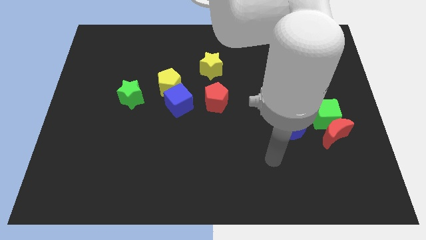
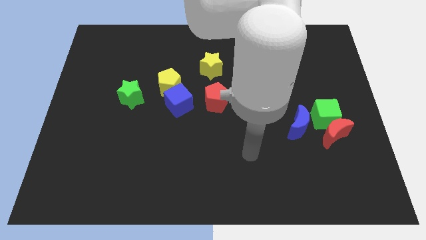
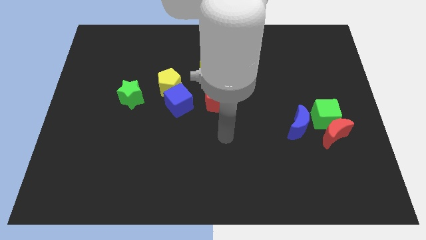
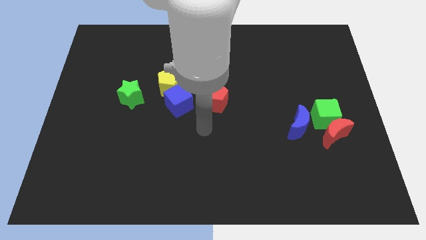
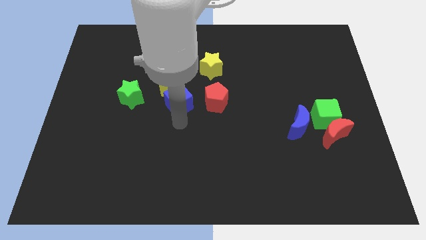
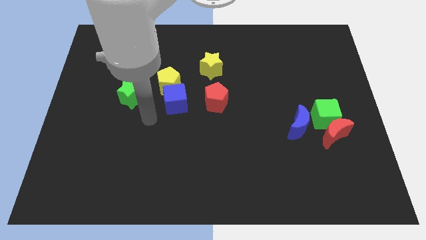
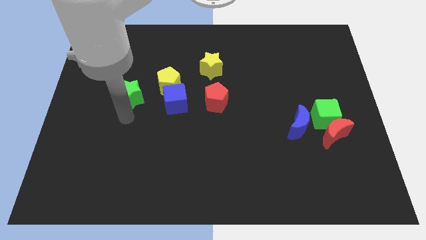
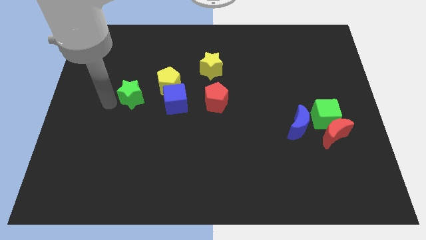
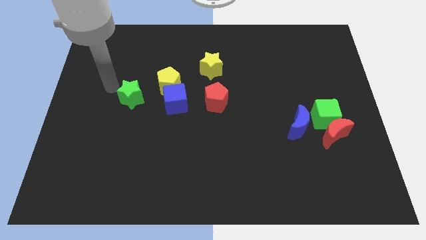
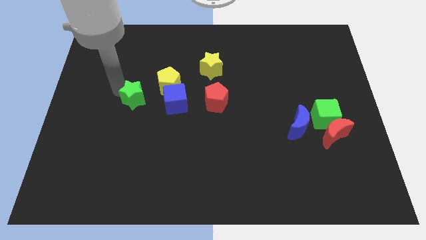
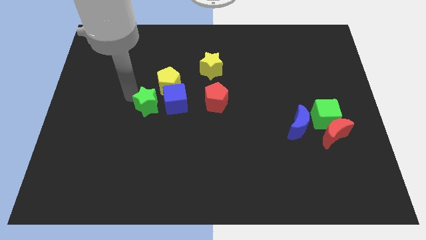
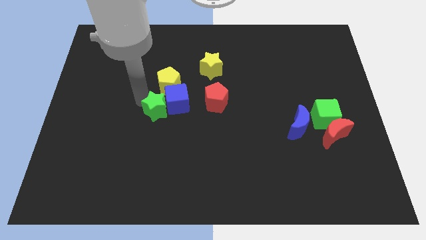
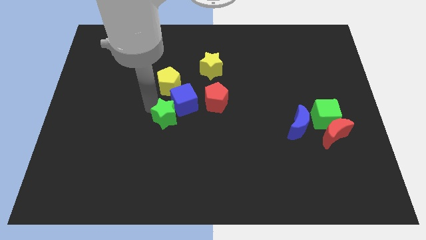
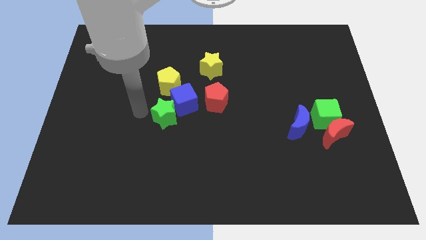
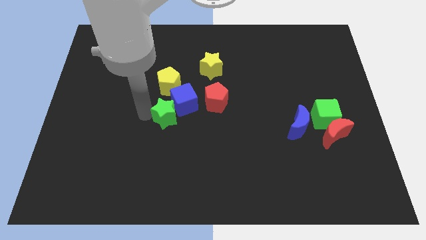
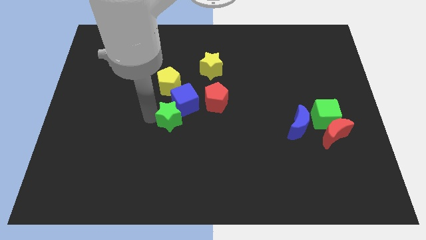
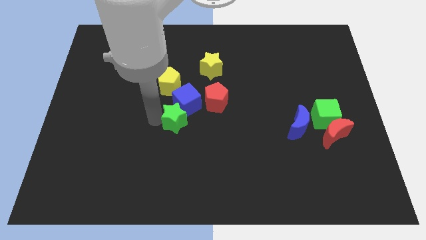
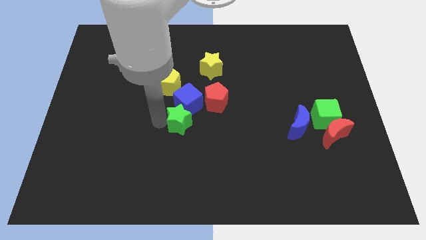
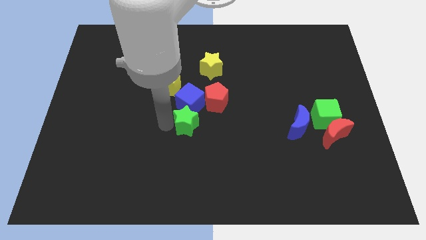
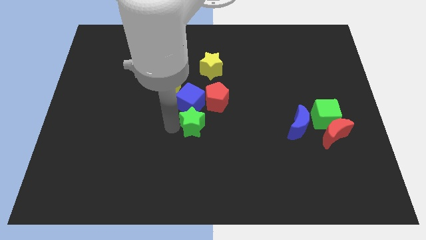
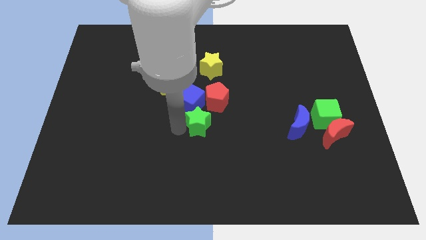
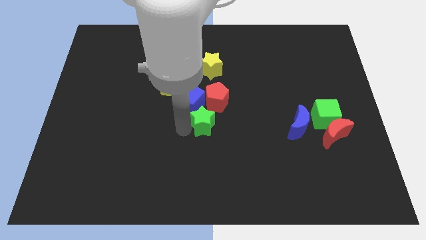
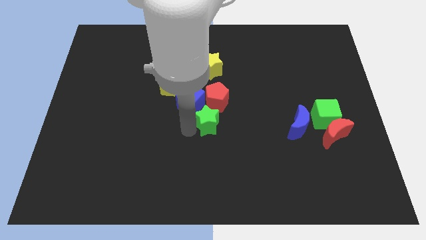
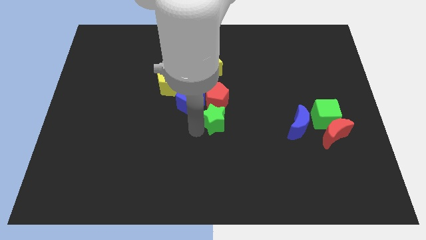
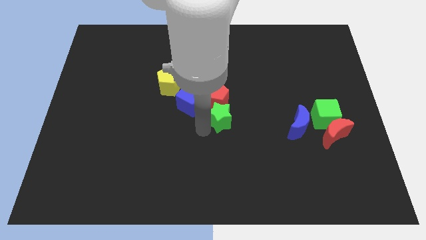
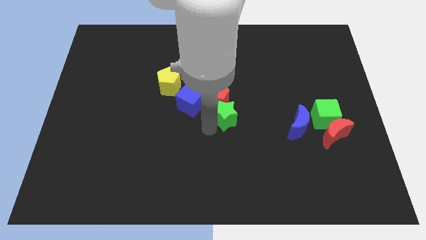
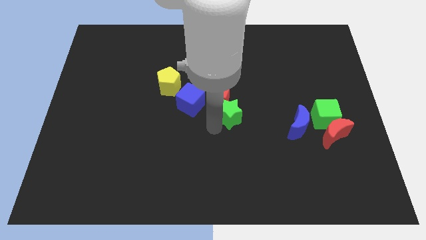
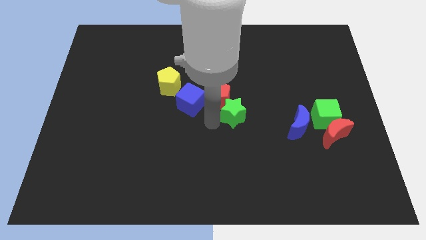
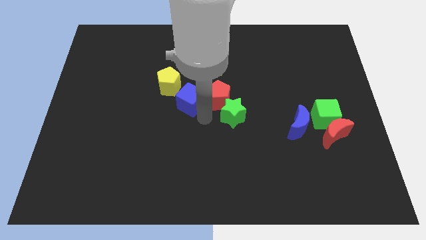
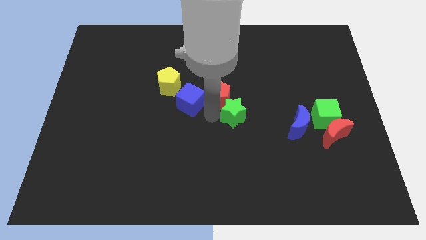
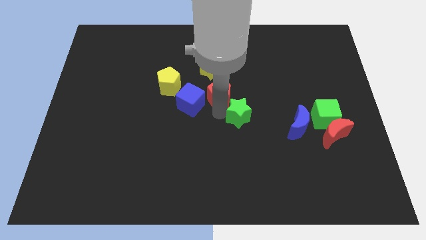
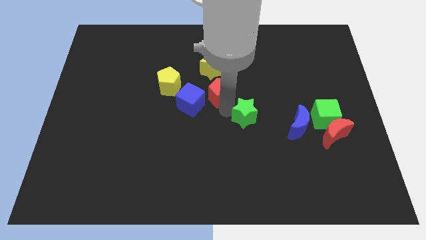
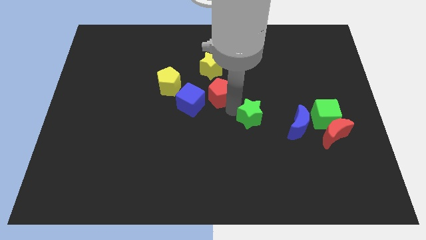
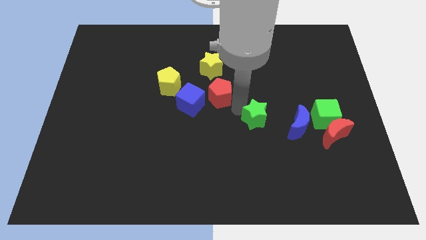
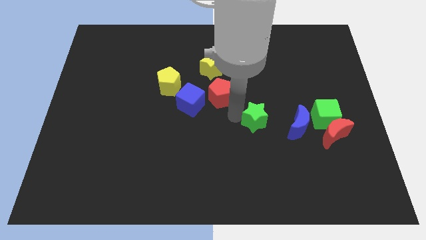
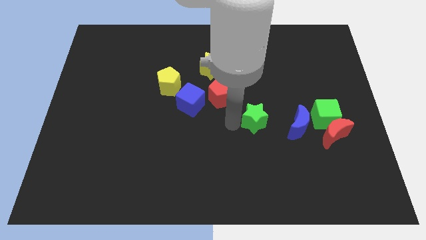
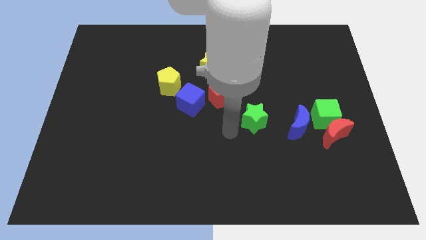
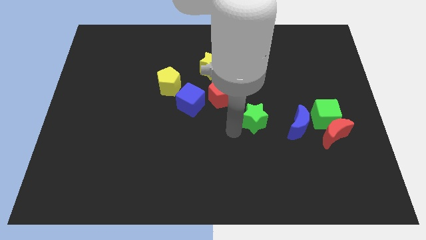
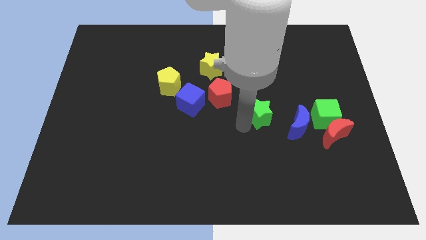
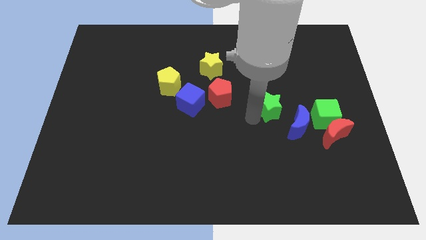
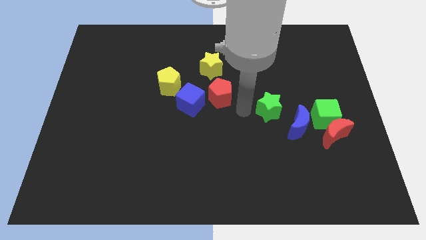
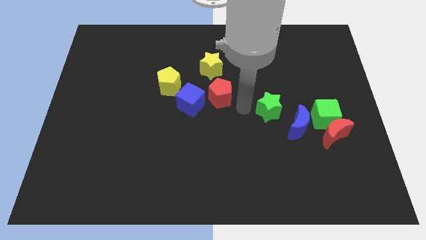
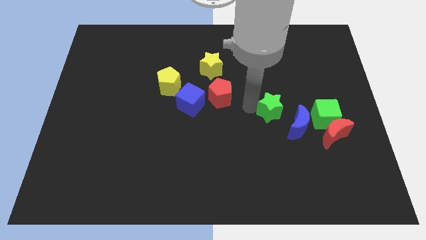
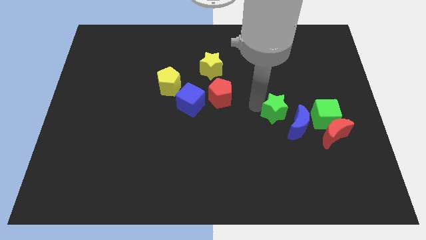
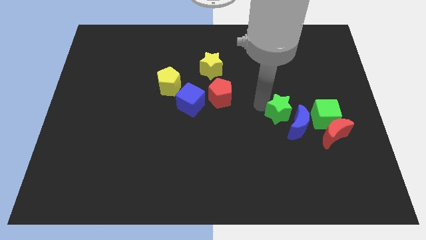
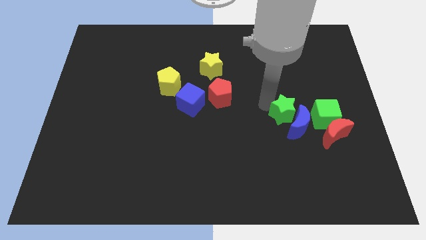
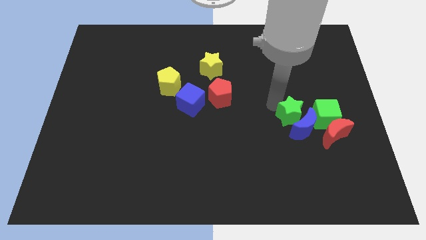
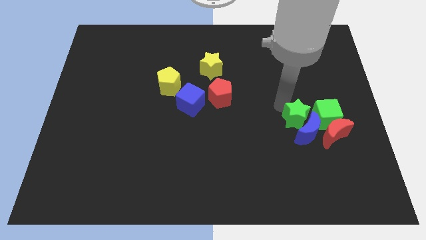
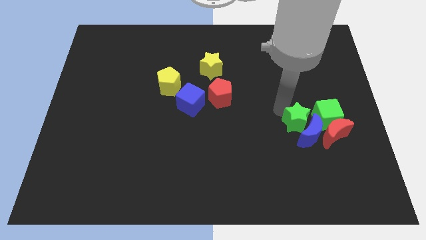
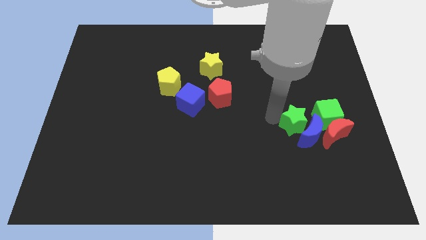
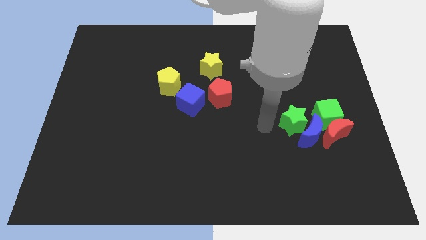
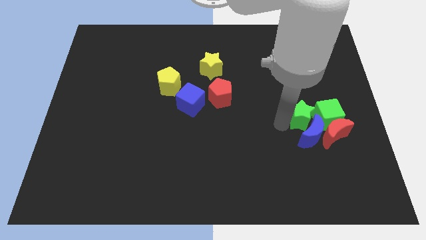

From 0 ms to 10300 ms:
move the green star towards the green cube

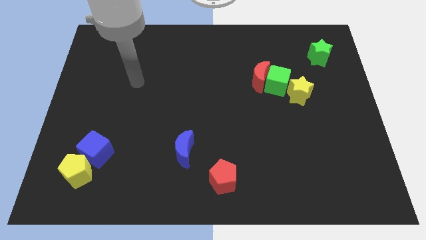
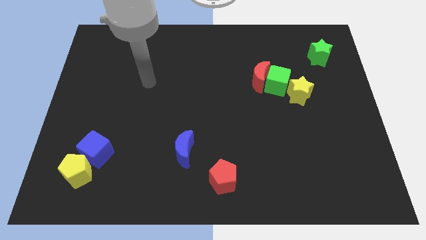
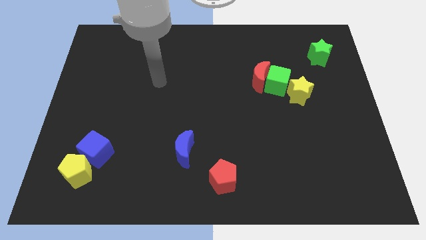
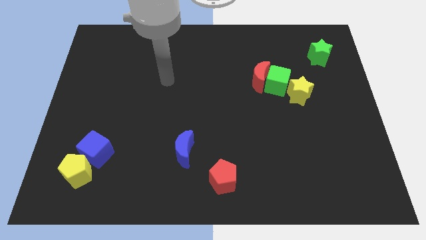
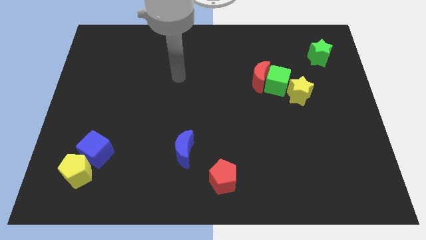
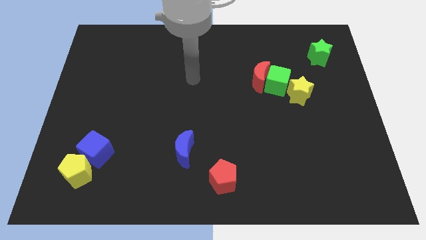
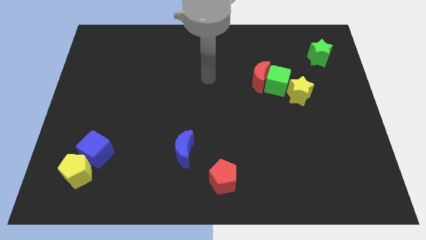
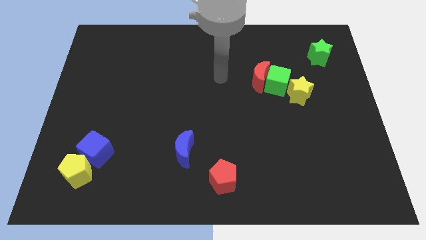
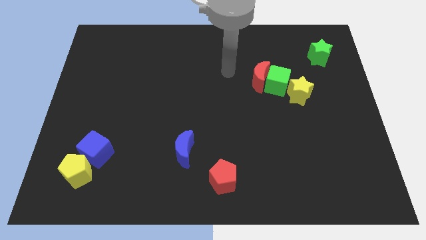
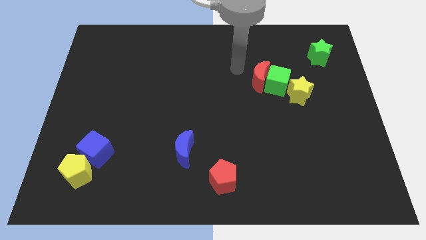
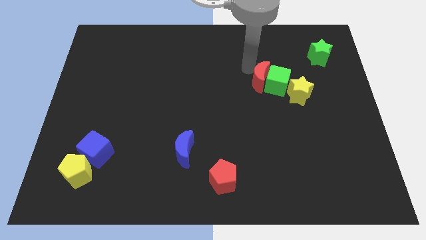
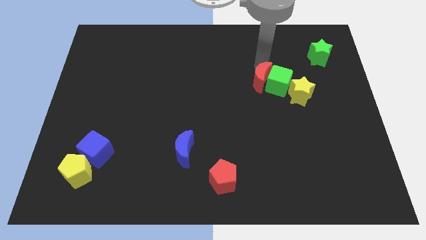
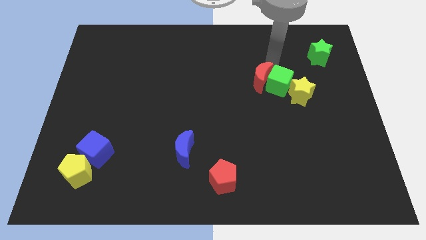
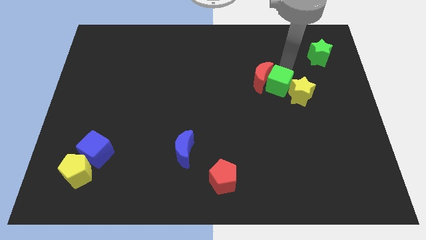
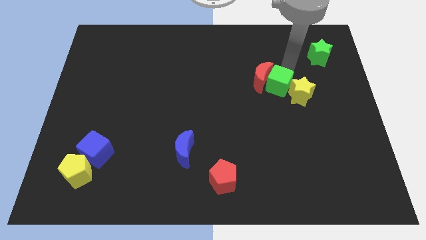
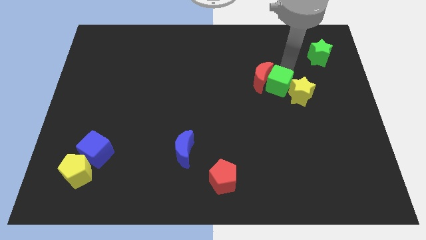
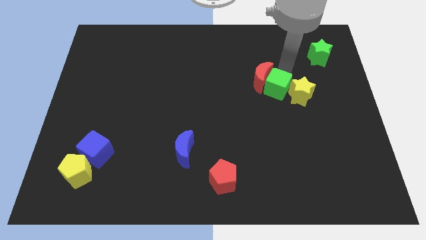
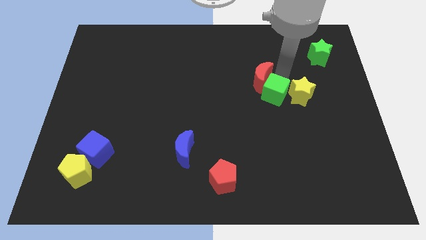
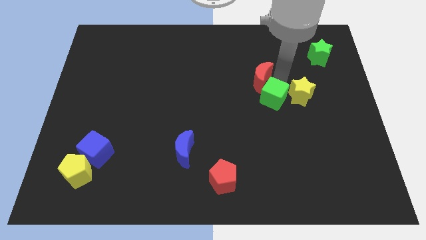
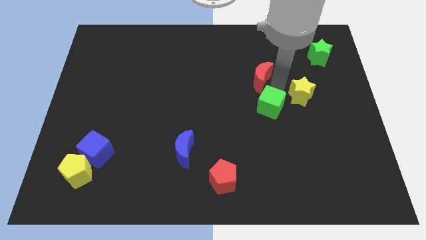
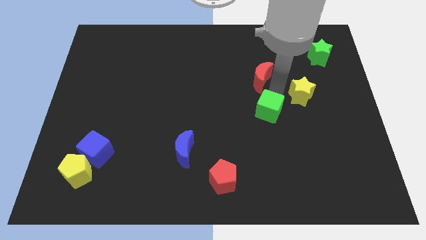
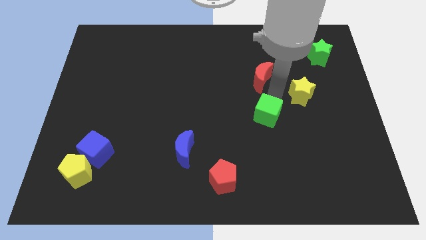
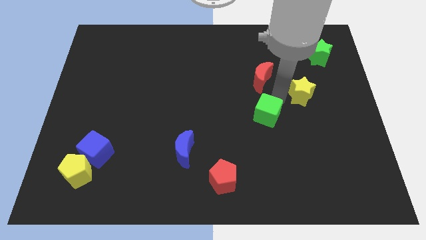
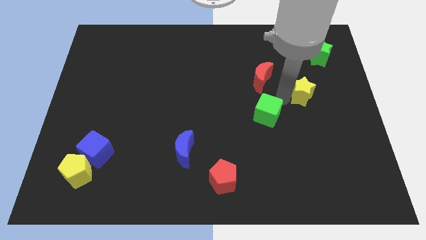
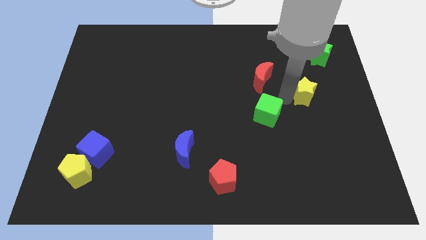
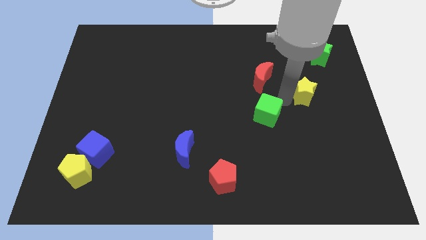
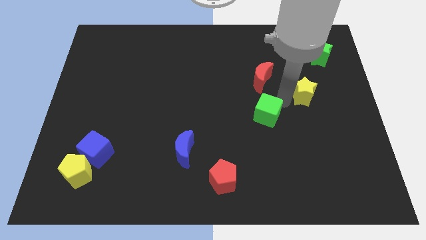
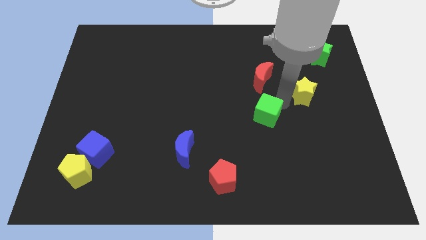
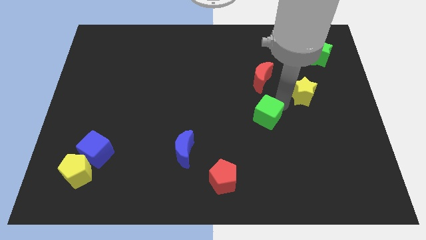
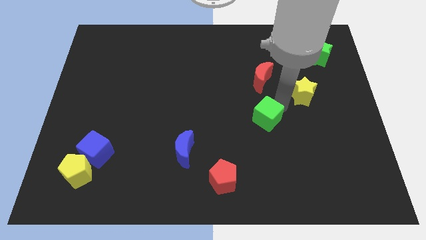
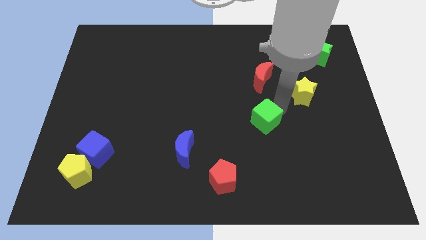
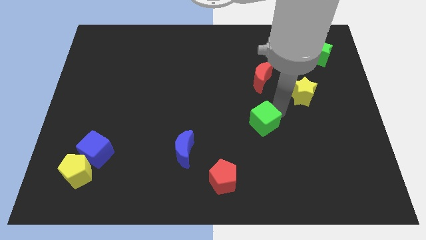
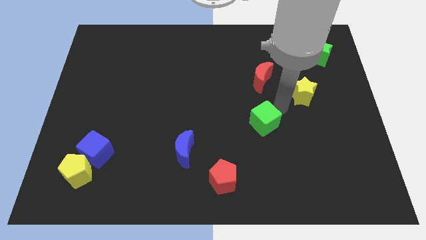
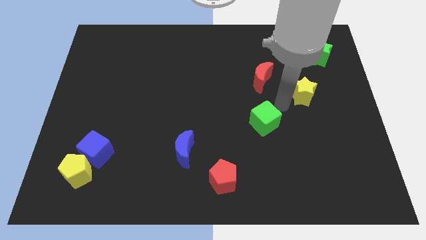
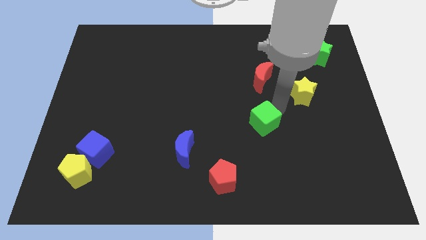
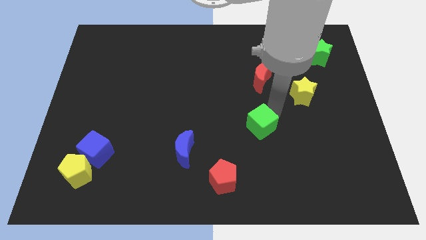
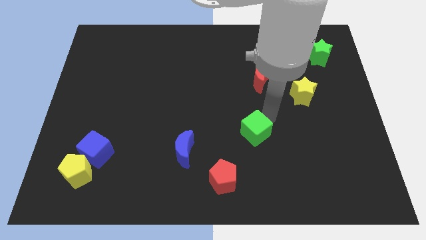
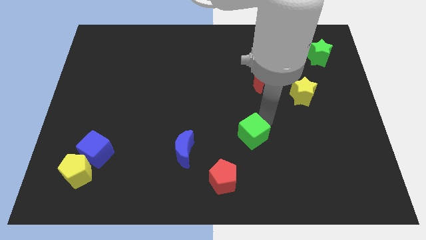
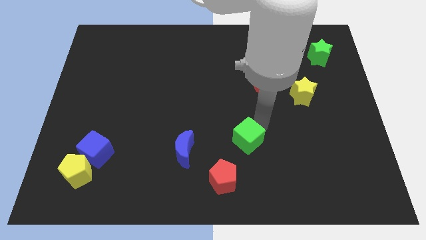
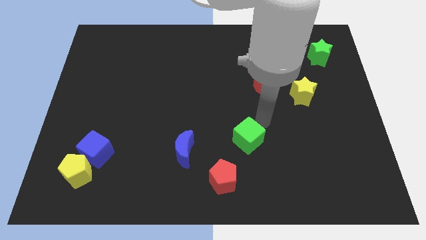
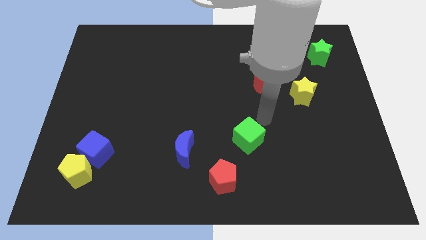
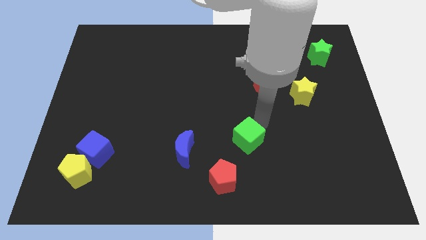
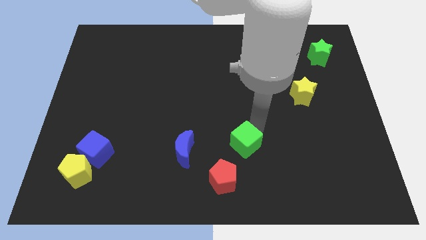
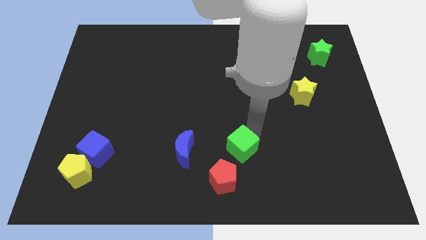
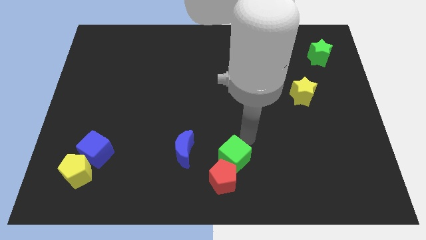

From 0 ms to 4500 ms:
move the green cube to the red pentagon
